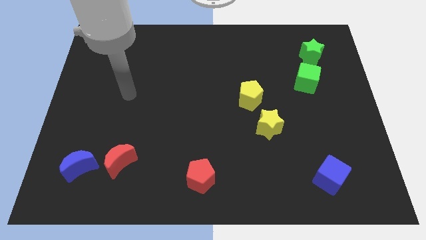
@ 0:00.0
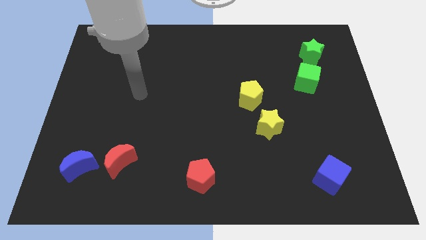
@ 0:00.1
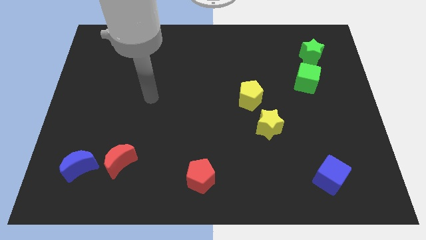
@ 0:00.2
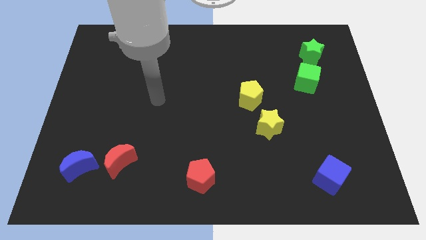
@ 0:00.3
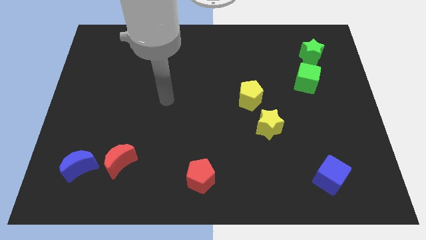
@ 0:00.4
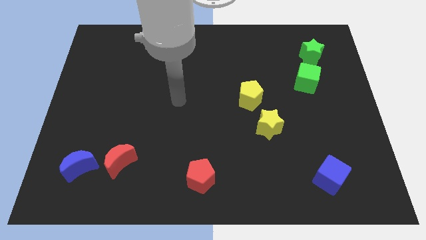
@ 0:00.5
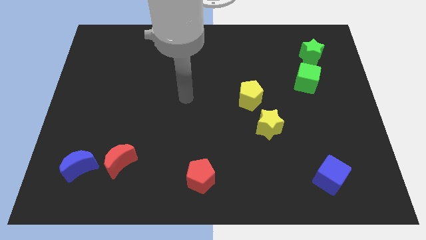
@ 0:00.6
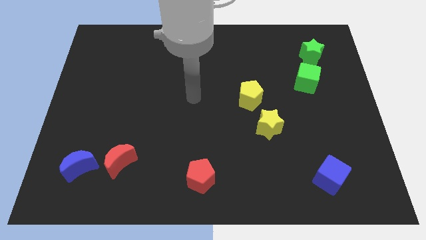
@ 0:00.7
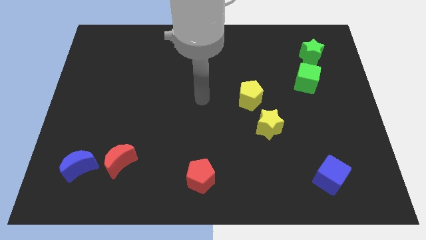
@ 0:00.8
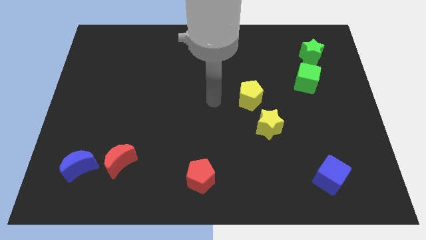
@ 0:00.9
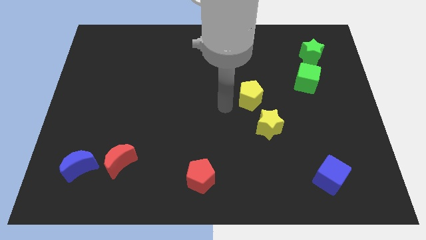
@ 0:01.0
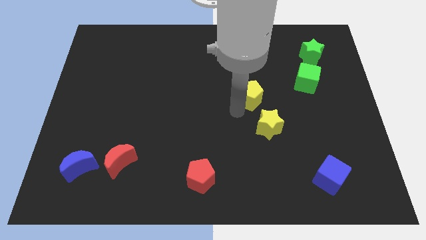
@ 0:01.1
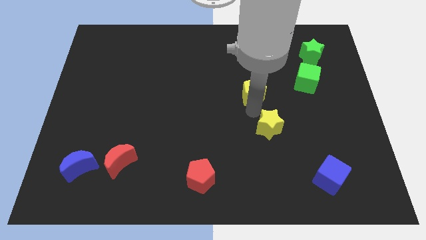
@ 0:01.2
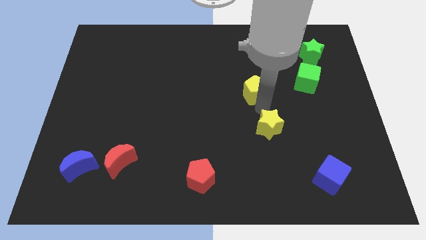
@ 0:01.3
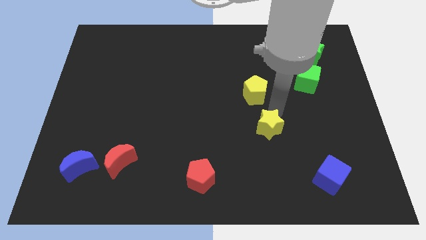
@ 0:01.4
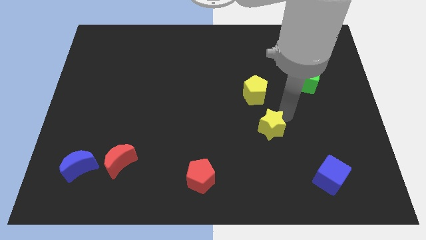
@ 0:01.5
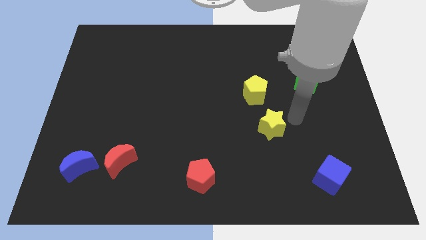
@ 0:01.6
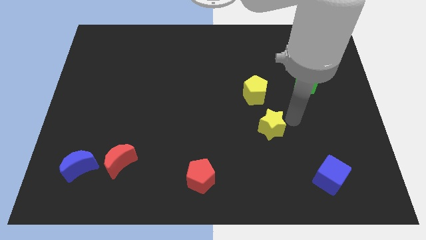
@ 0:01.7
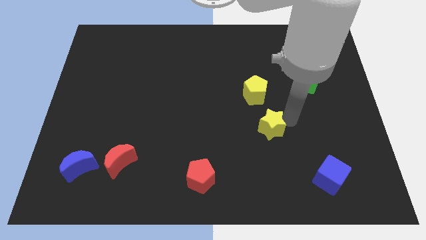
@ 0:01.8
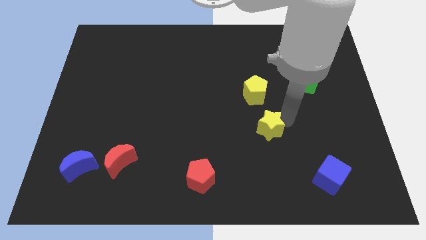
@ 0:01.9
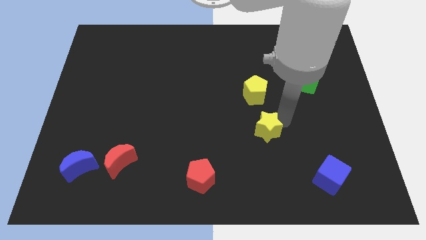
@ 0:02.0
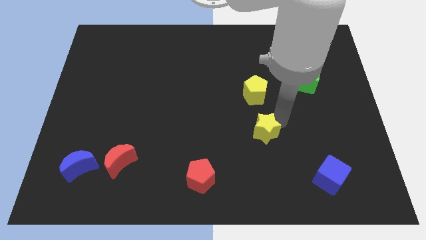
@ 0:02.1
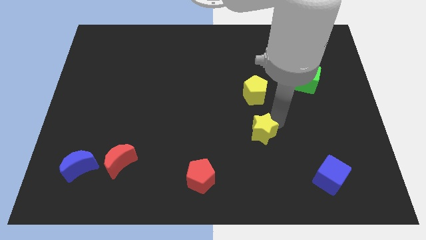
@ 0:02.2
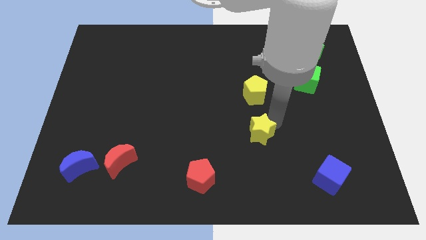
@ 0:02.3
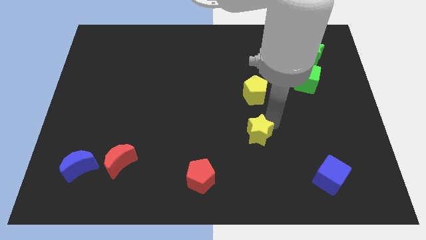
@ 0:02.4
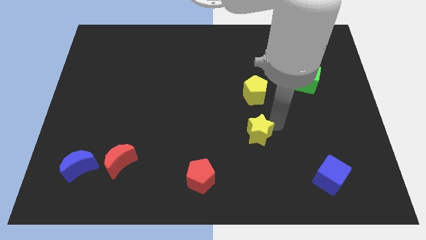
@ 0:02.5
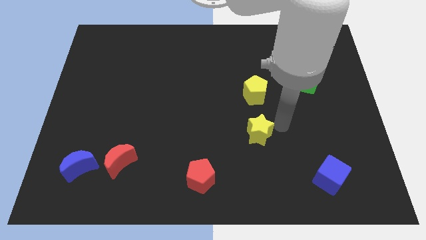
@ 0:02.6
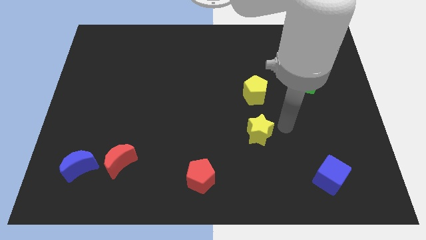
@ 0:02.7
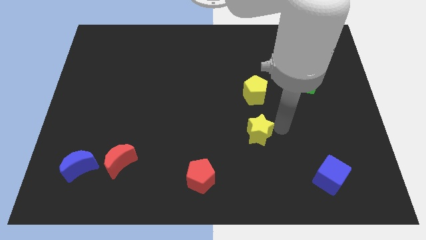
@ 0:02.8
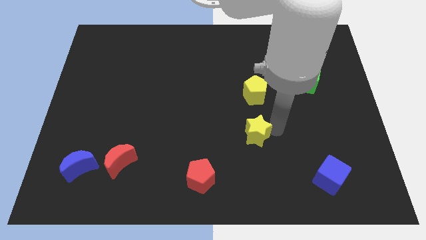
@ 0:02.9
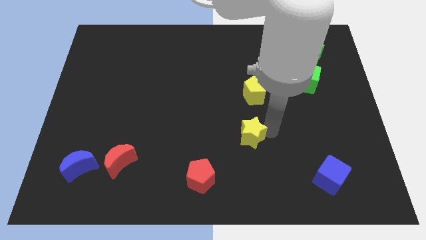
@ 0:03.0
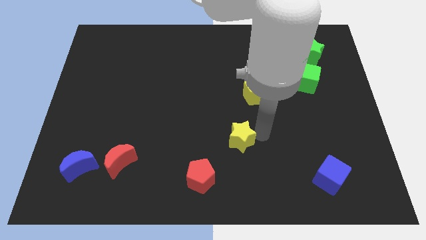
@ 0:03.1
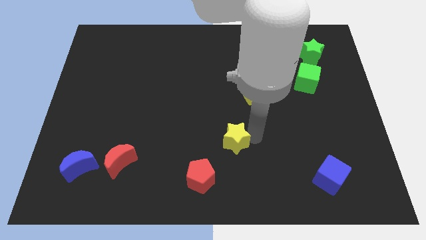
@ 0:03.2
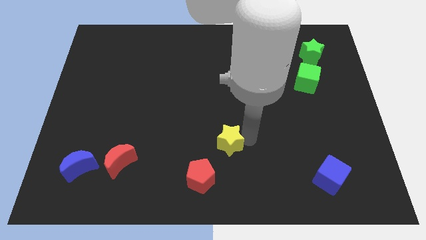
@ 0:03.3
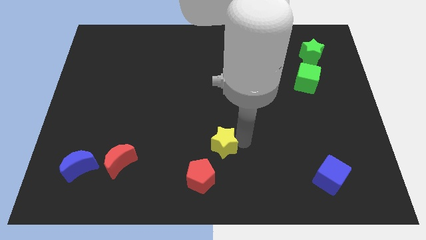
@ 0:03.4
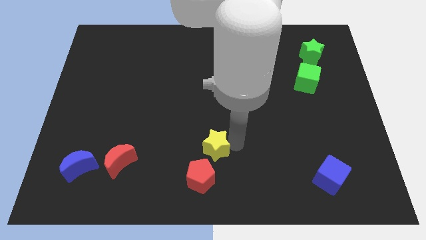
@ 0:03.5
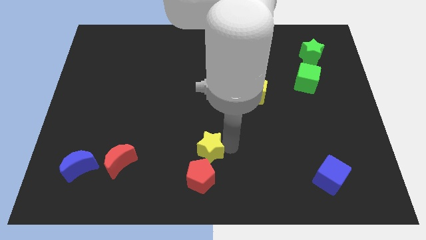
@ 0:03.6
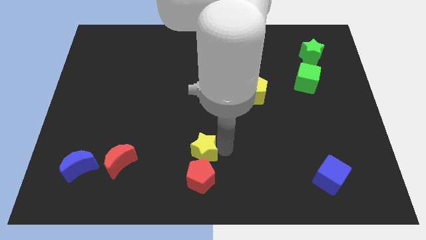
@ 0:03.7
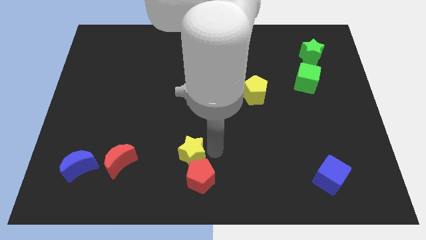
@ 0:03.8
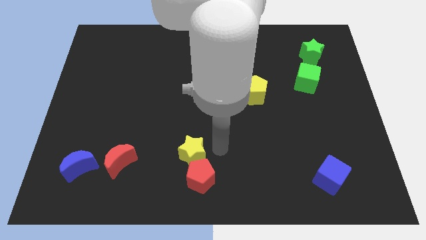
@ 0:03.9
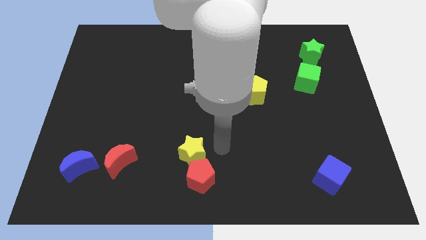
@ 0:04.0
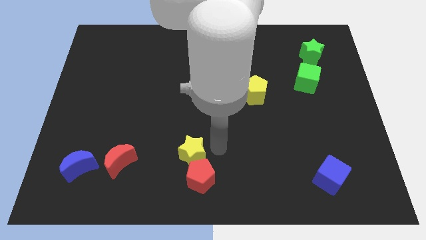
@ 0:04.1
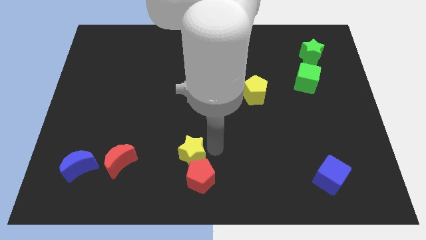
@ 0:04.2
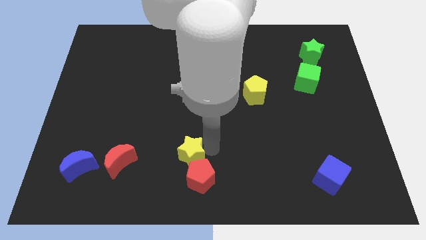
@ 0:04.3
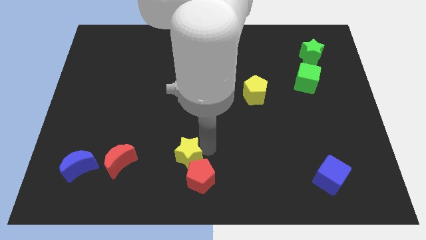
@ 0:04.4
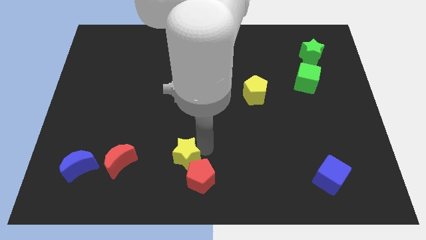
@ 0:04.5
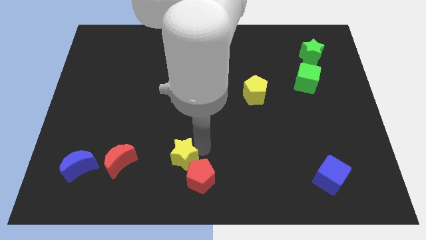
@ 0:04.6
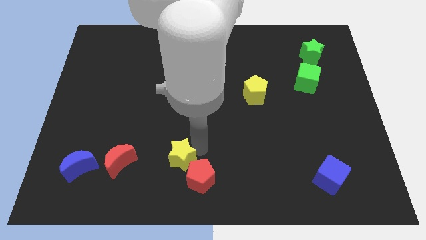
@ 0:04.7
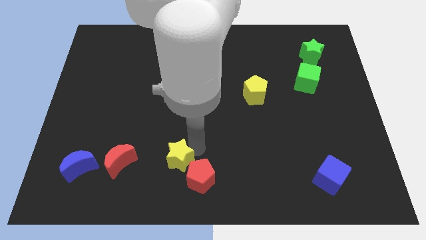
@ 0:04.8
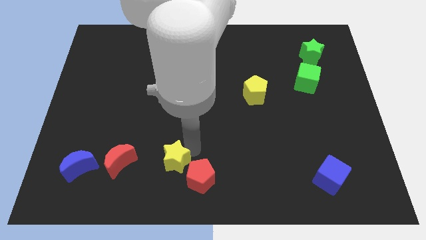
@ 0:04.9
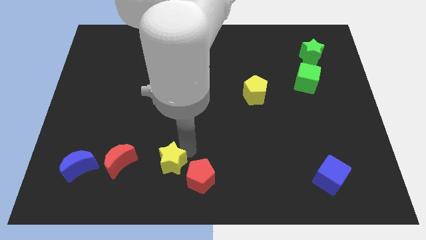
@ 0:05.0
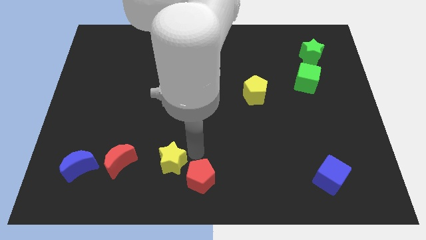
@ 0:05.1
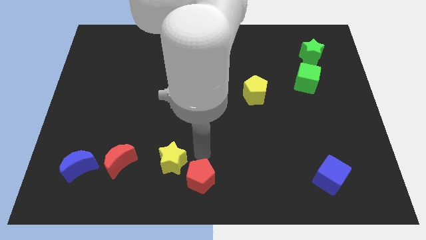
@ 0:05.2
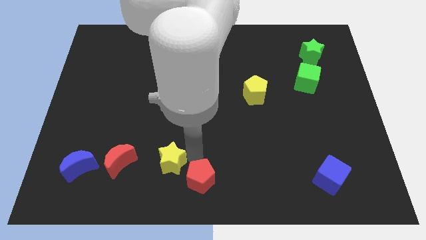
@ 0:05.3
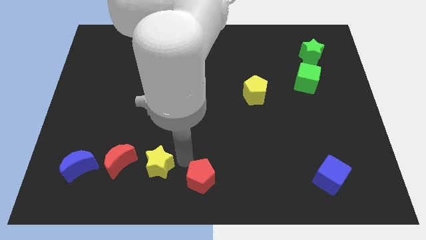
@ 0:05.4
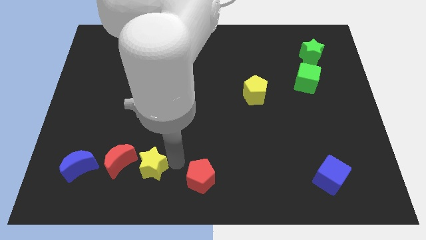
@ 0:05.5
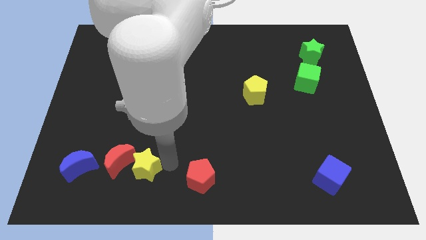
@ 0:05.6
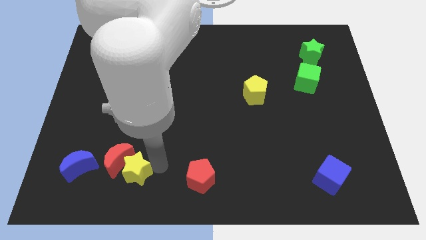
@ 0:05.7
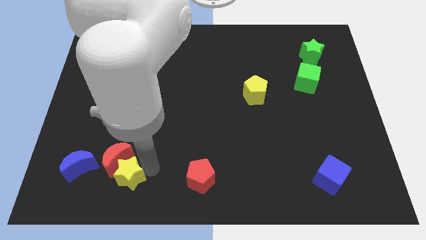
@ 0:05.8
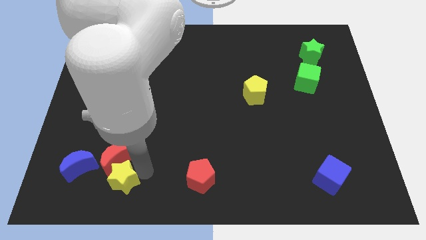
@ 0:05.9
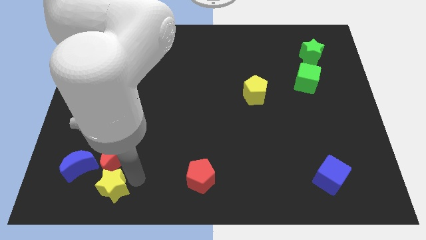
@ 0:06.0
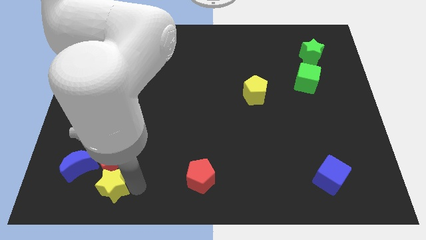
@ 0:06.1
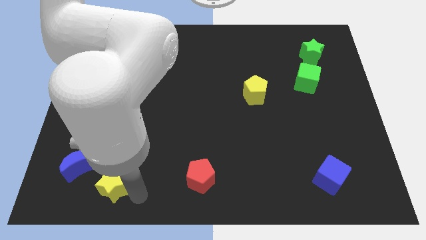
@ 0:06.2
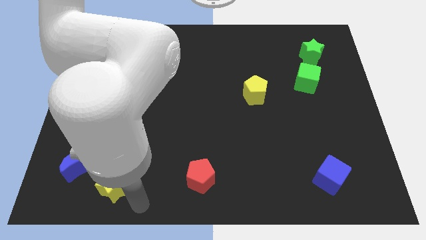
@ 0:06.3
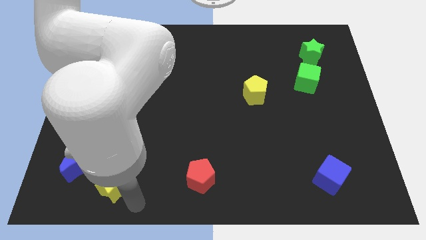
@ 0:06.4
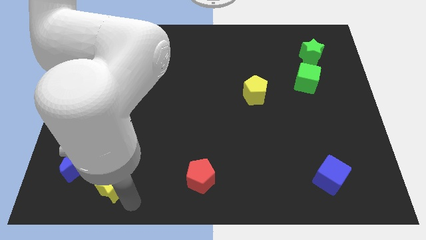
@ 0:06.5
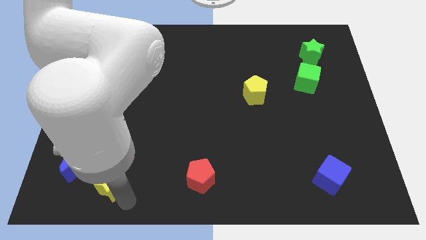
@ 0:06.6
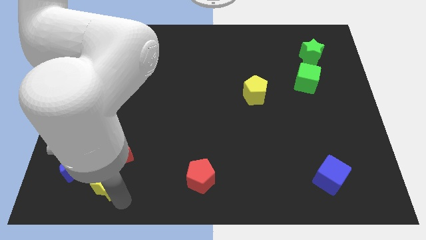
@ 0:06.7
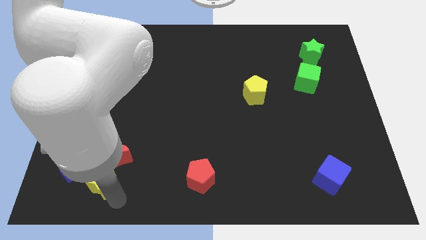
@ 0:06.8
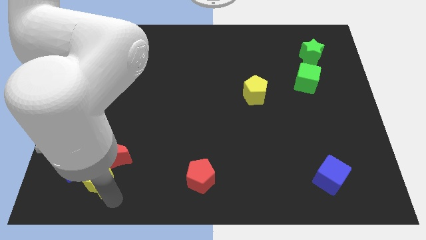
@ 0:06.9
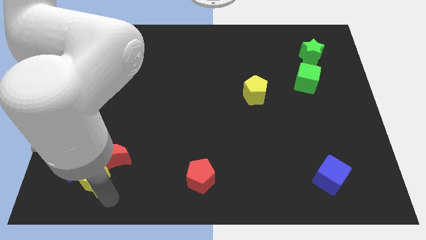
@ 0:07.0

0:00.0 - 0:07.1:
push the yellow star to the blue moon
